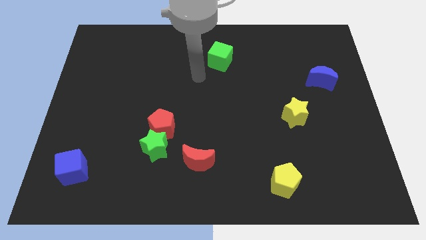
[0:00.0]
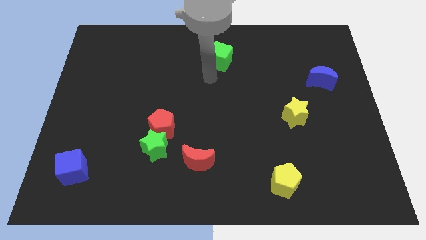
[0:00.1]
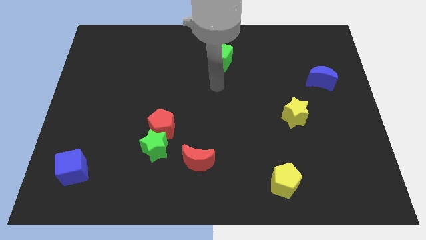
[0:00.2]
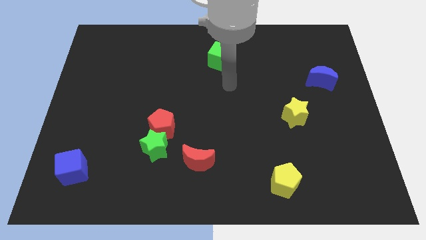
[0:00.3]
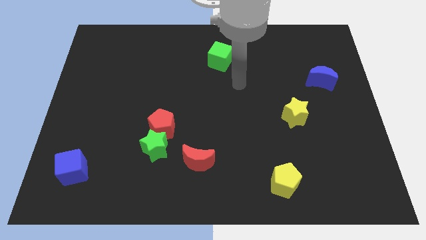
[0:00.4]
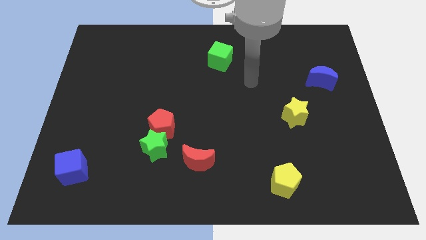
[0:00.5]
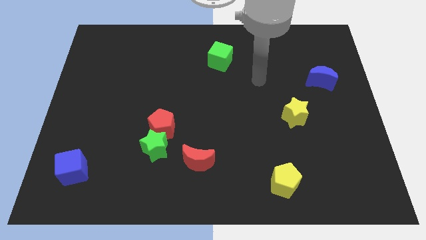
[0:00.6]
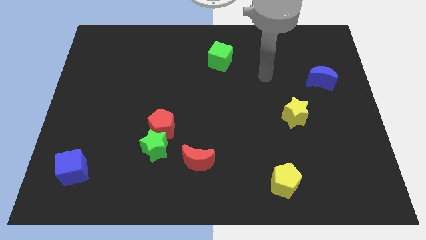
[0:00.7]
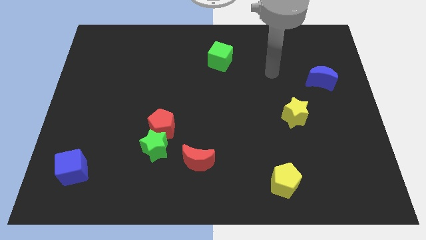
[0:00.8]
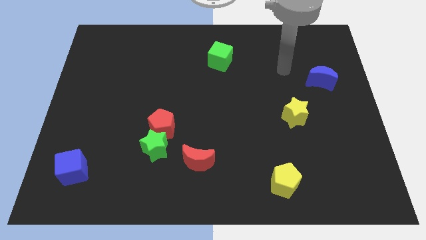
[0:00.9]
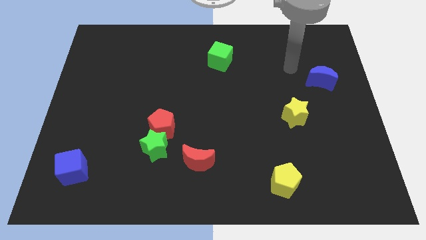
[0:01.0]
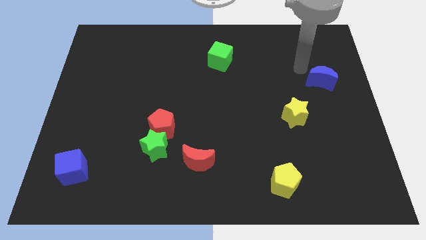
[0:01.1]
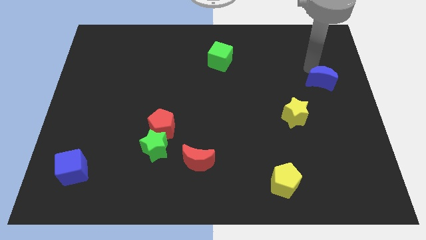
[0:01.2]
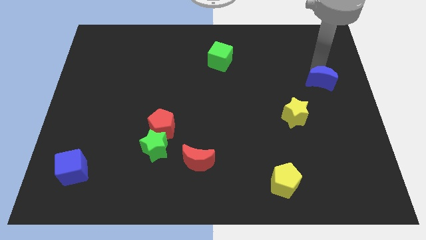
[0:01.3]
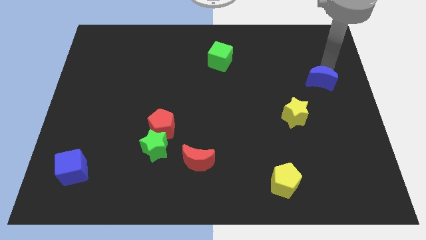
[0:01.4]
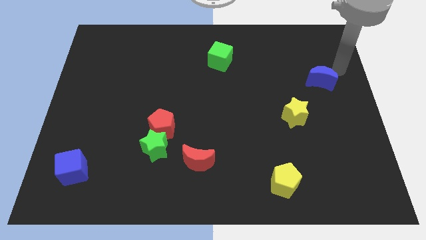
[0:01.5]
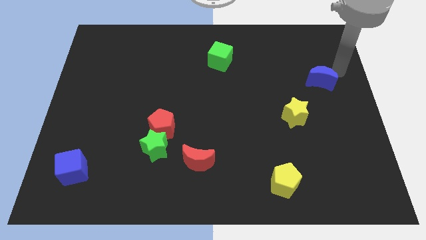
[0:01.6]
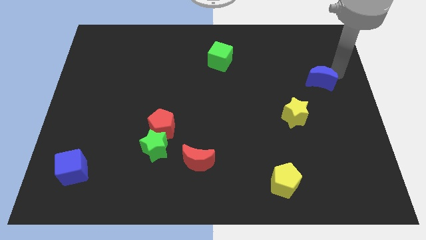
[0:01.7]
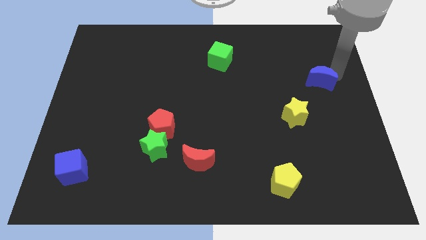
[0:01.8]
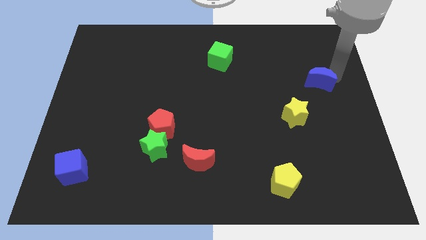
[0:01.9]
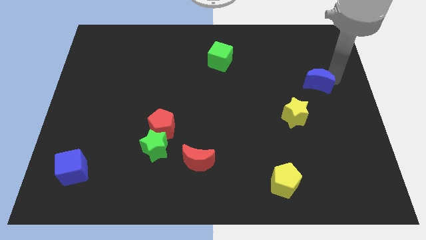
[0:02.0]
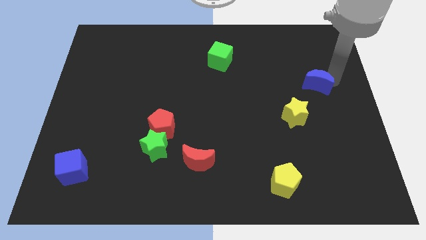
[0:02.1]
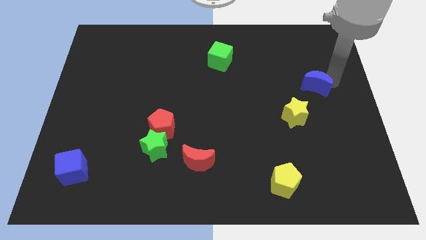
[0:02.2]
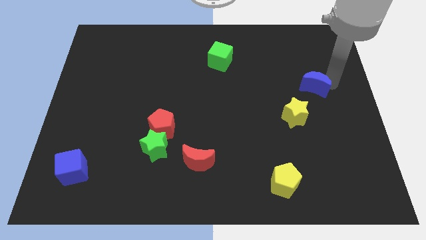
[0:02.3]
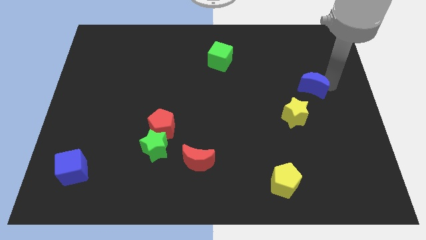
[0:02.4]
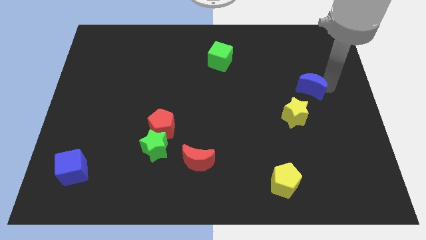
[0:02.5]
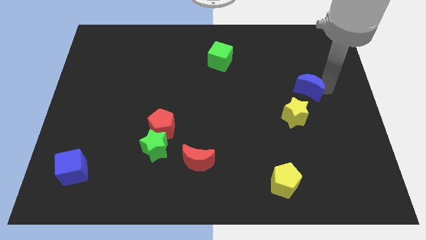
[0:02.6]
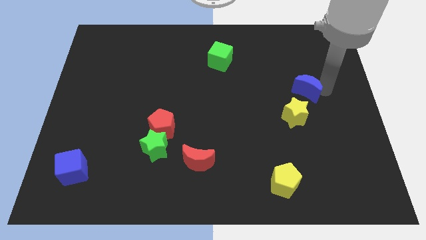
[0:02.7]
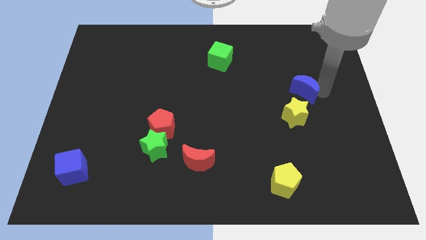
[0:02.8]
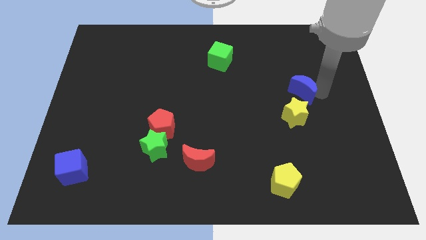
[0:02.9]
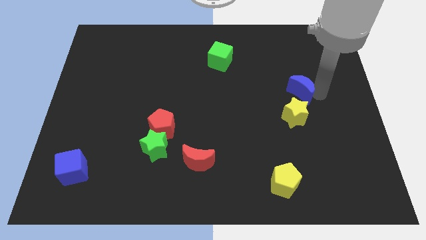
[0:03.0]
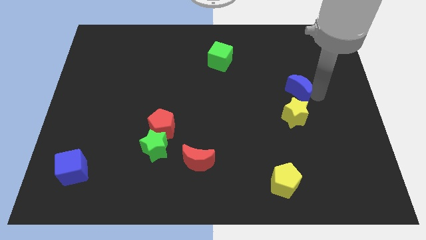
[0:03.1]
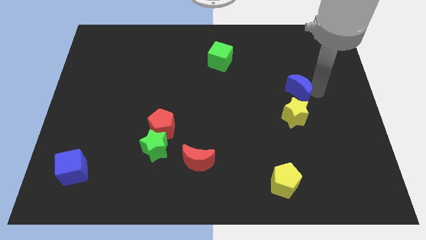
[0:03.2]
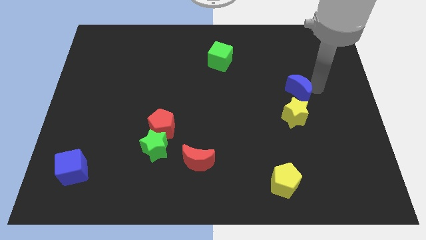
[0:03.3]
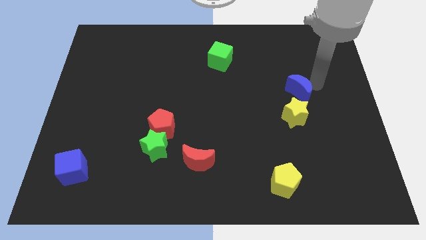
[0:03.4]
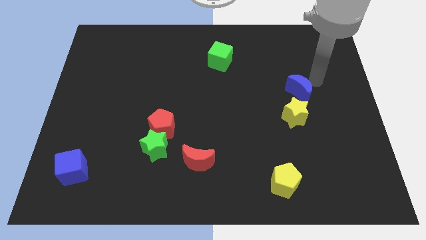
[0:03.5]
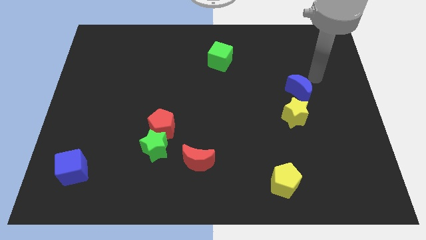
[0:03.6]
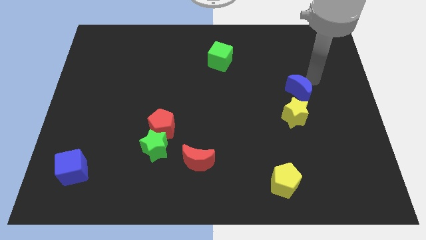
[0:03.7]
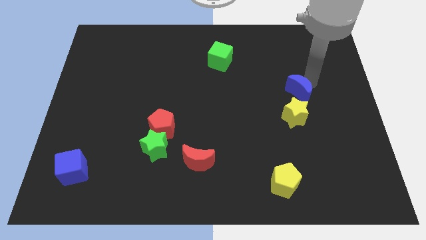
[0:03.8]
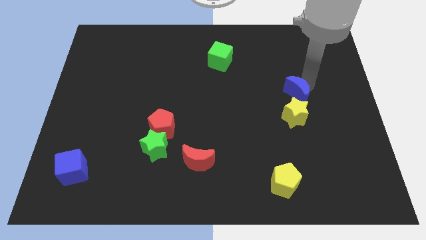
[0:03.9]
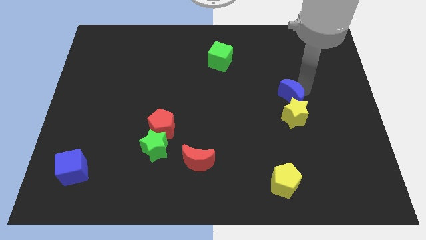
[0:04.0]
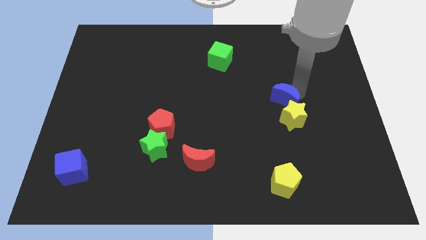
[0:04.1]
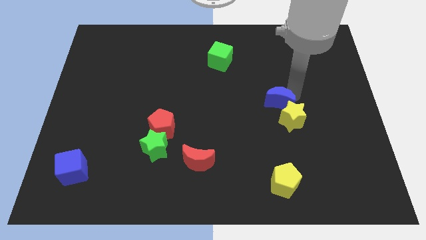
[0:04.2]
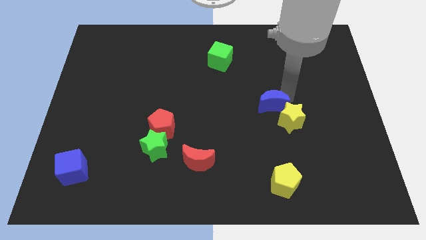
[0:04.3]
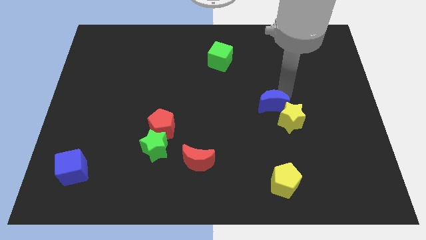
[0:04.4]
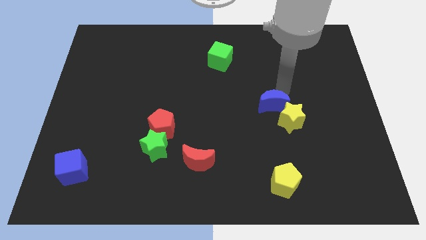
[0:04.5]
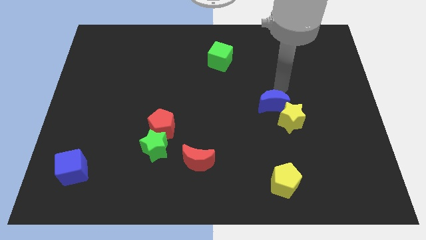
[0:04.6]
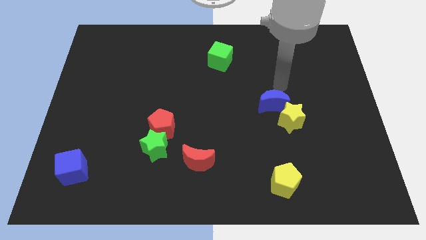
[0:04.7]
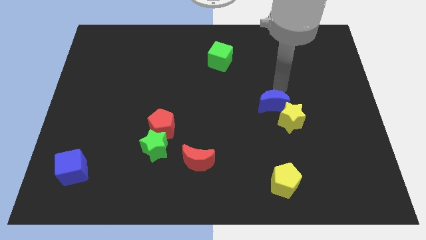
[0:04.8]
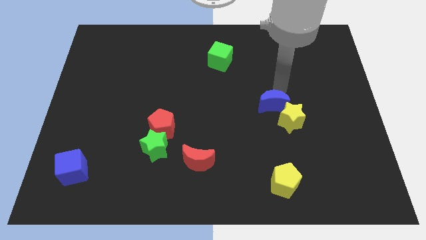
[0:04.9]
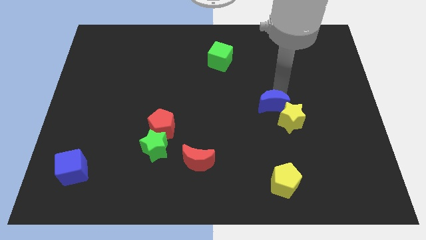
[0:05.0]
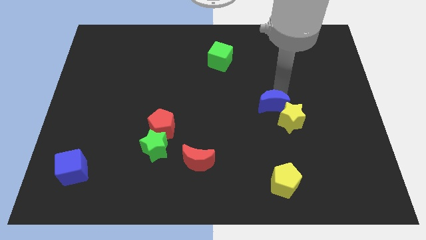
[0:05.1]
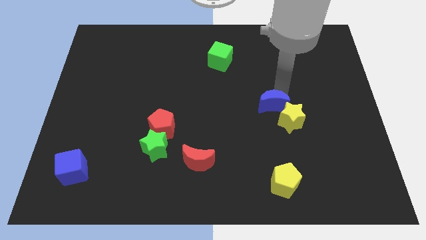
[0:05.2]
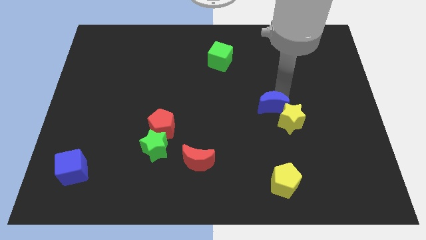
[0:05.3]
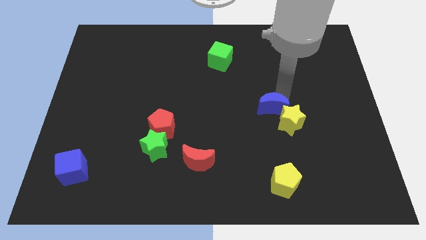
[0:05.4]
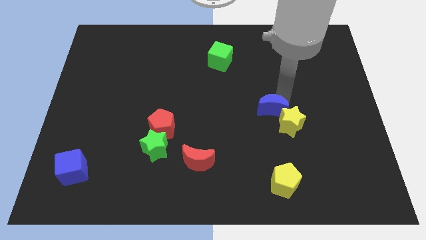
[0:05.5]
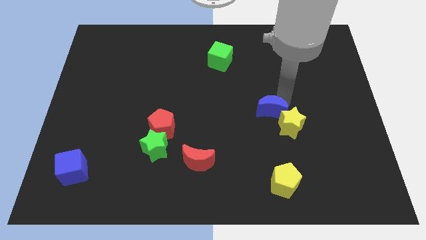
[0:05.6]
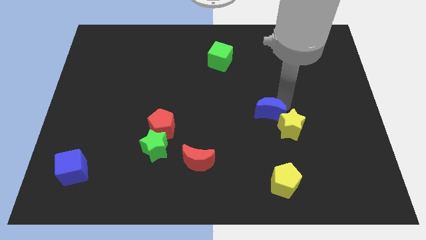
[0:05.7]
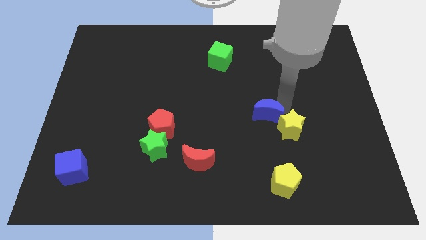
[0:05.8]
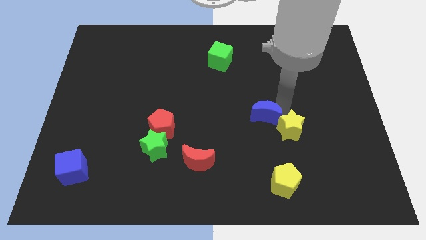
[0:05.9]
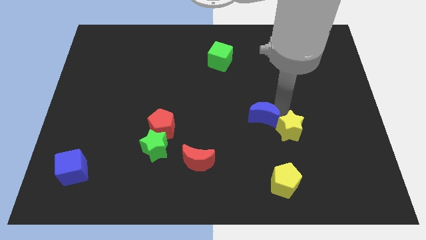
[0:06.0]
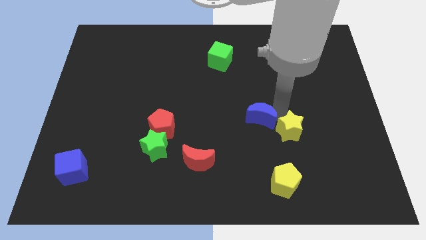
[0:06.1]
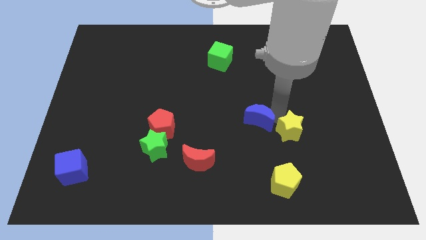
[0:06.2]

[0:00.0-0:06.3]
slide the blue moon downwards and then left

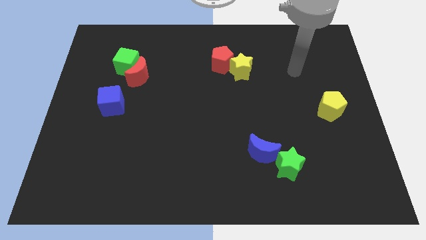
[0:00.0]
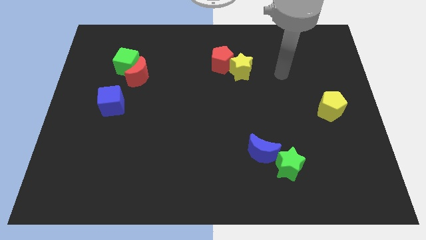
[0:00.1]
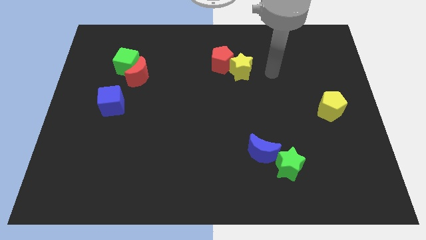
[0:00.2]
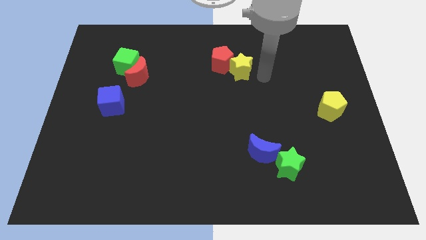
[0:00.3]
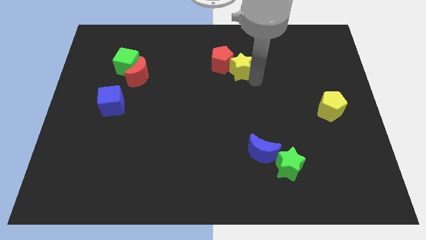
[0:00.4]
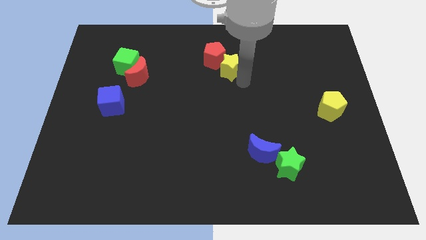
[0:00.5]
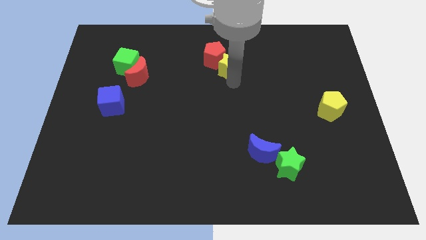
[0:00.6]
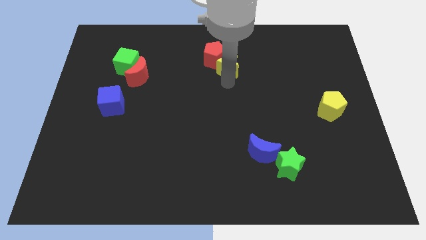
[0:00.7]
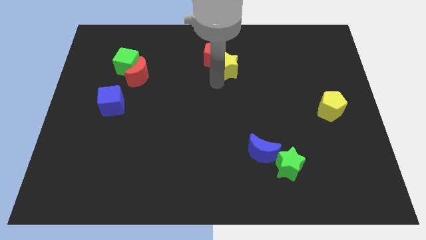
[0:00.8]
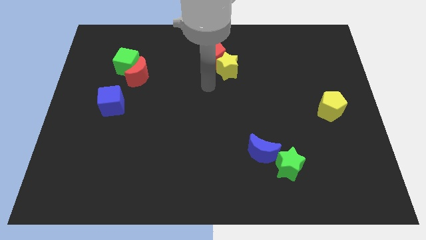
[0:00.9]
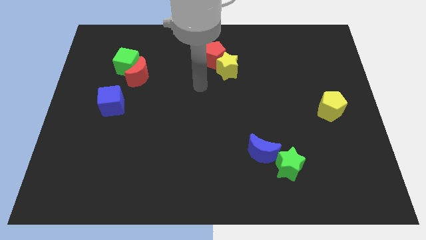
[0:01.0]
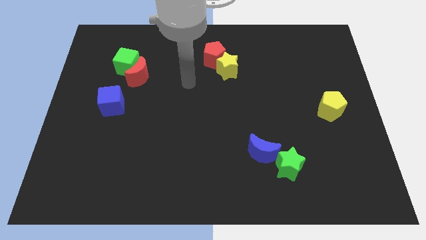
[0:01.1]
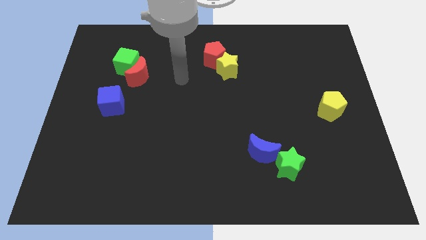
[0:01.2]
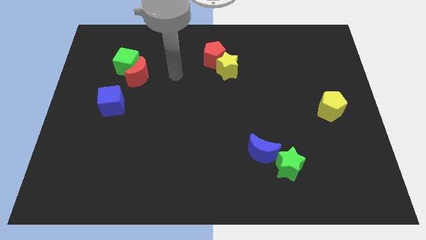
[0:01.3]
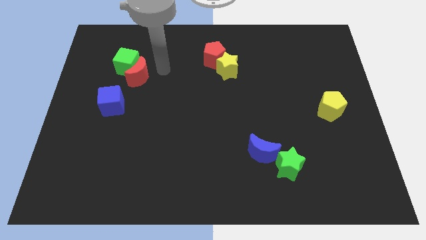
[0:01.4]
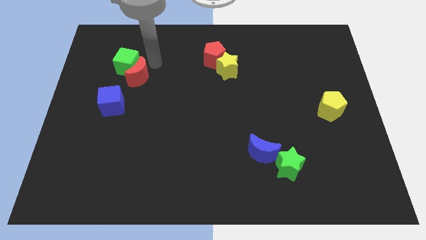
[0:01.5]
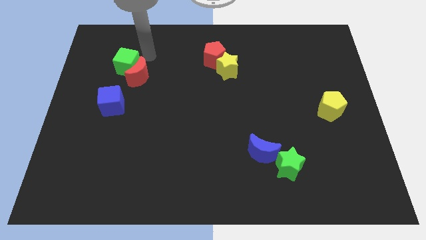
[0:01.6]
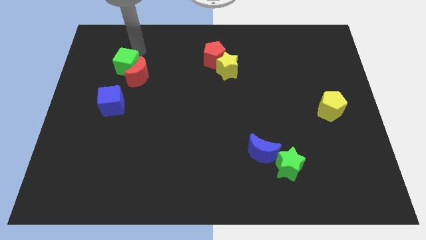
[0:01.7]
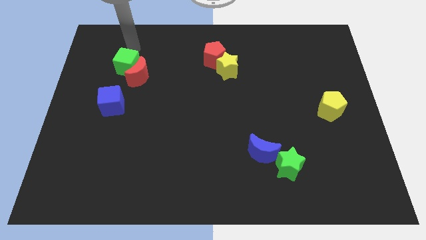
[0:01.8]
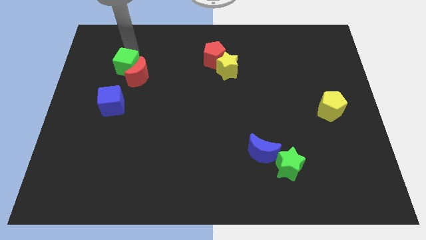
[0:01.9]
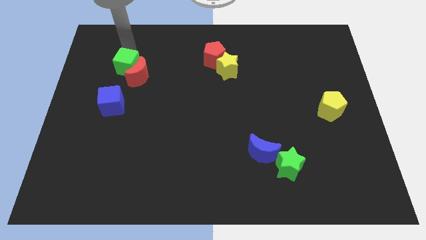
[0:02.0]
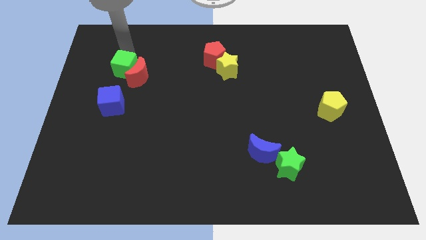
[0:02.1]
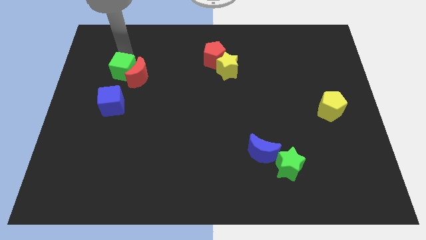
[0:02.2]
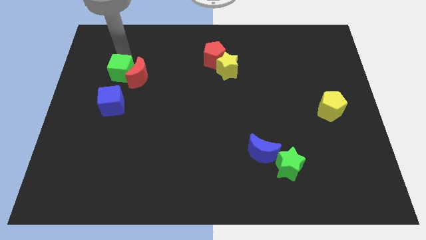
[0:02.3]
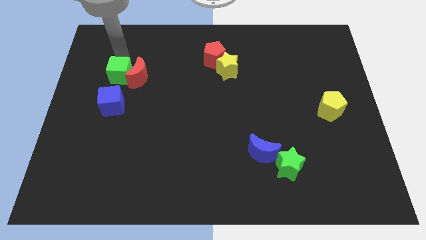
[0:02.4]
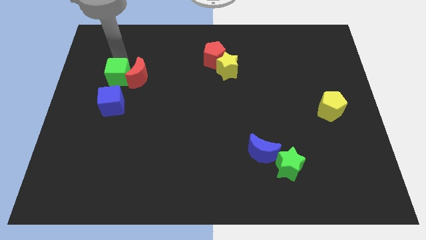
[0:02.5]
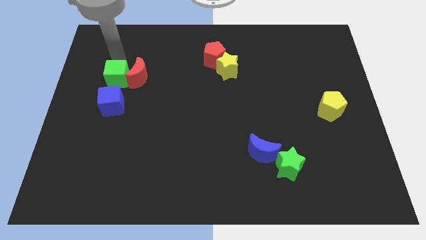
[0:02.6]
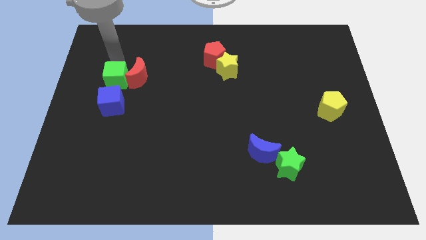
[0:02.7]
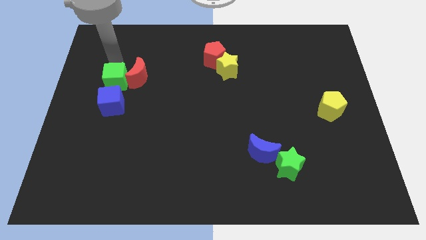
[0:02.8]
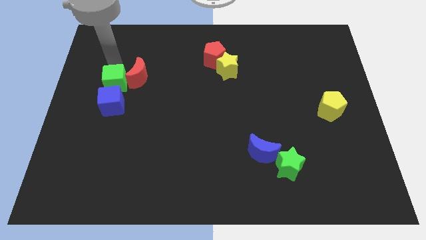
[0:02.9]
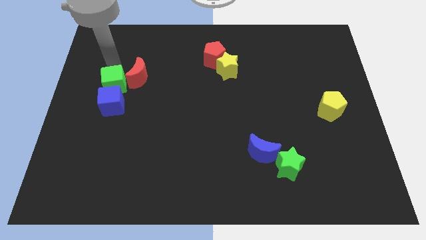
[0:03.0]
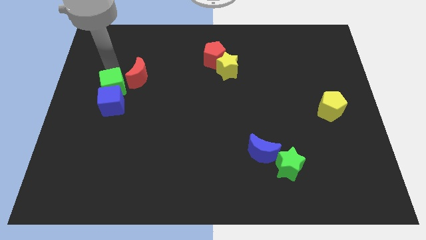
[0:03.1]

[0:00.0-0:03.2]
slide the green cube downwards slightly
